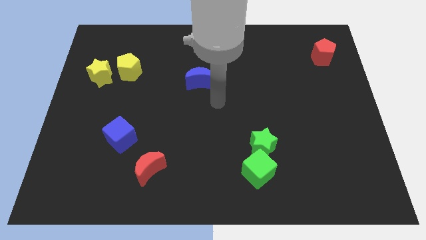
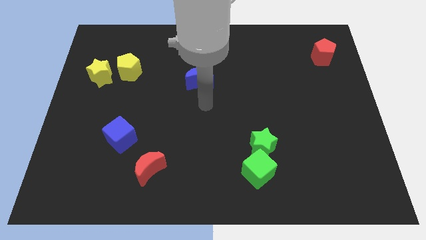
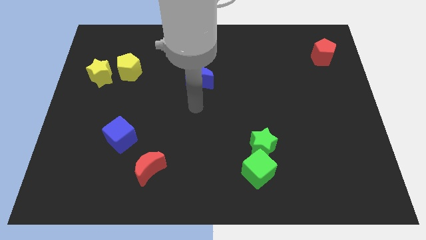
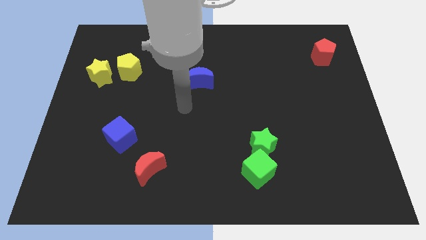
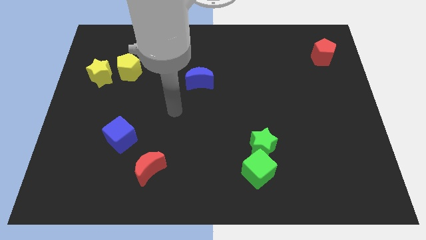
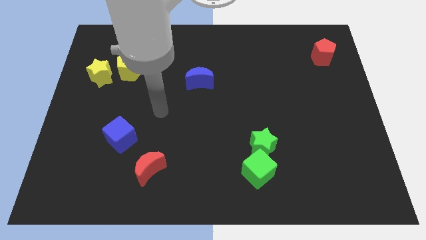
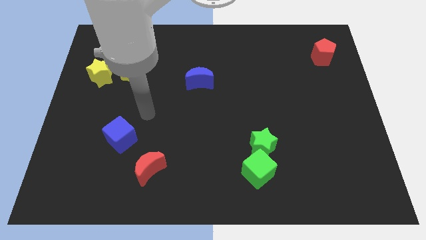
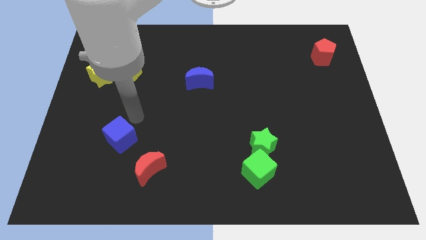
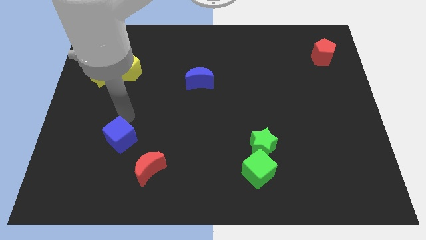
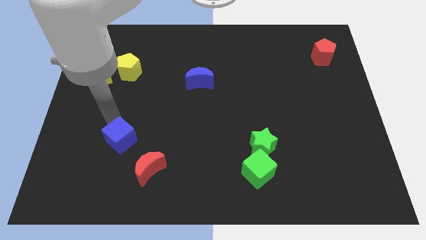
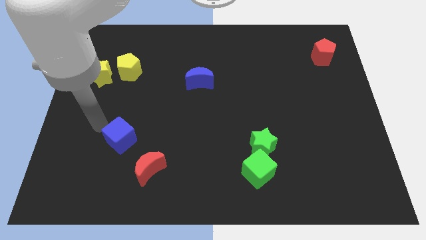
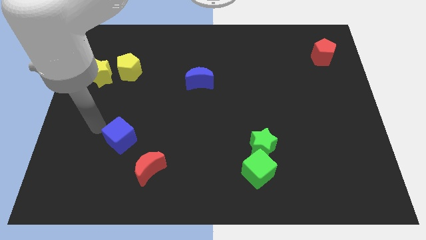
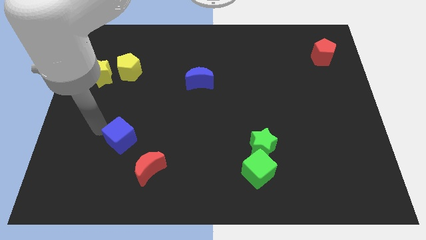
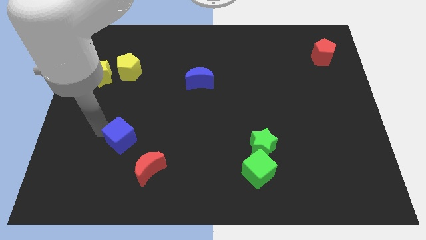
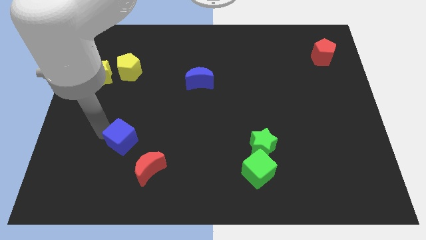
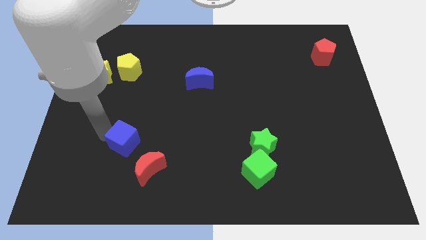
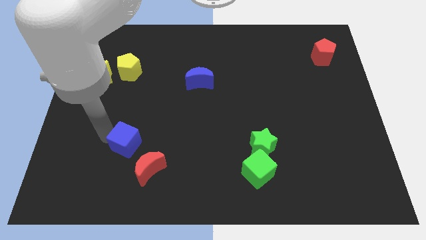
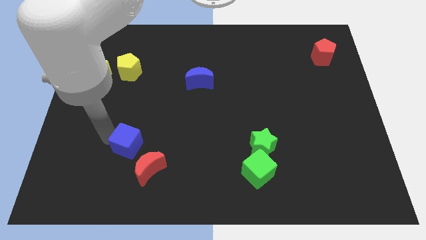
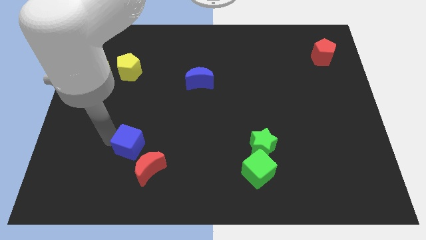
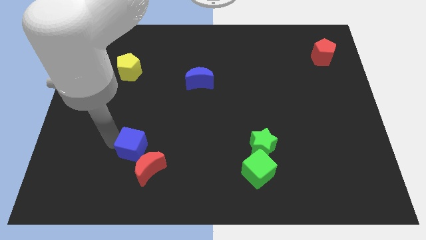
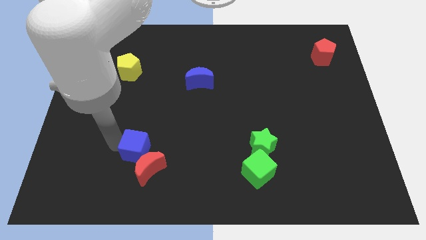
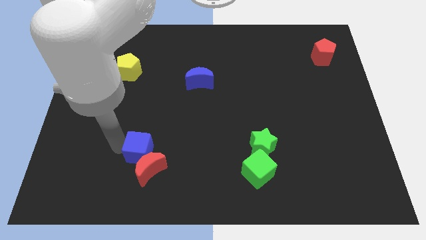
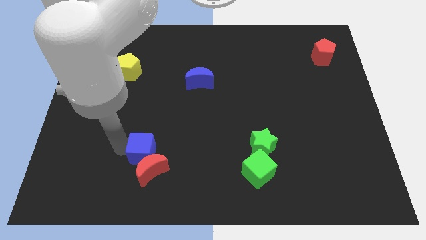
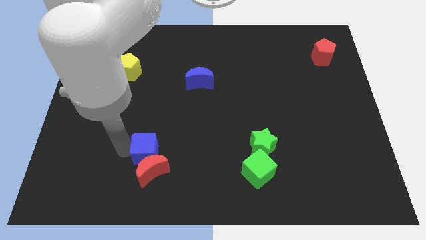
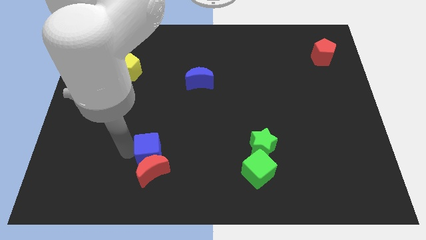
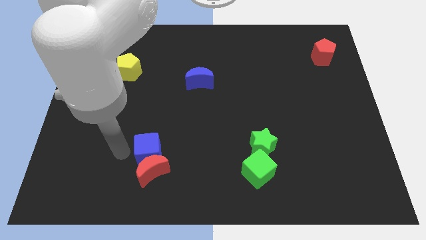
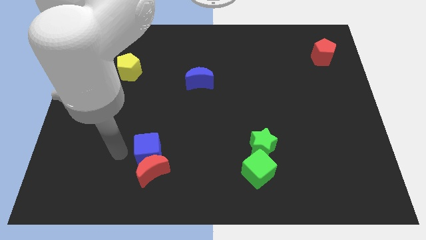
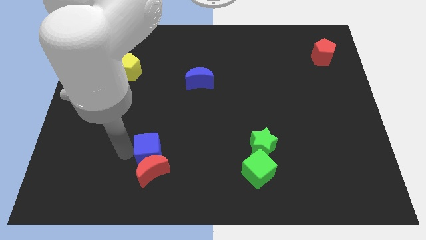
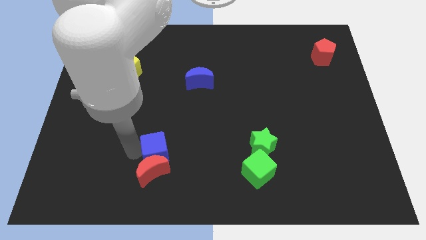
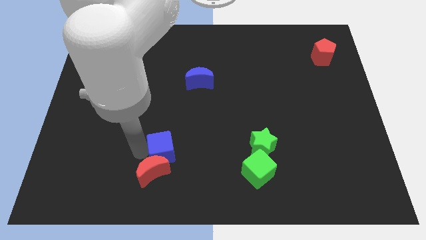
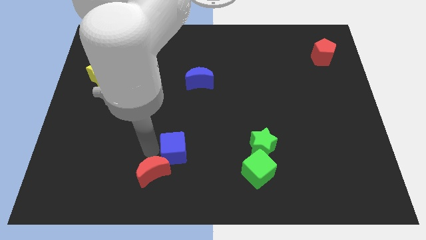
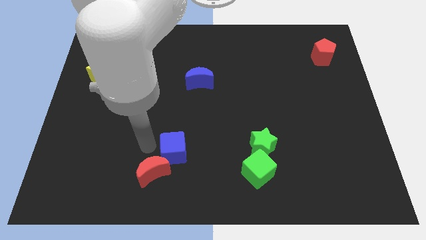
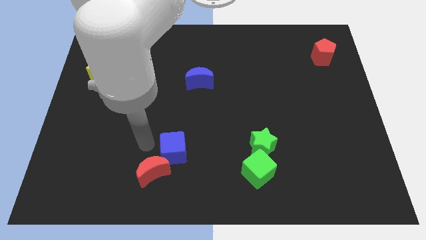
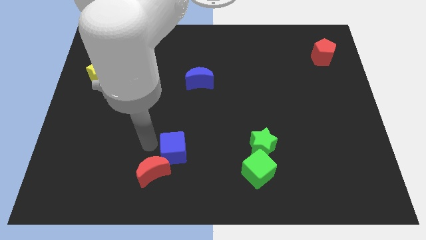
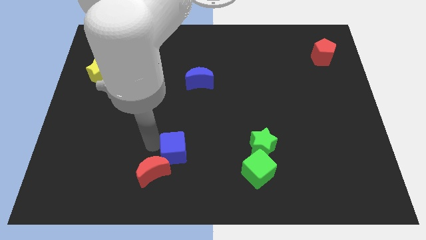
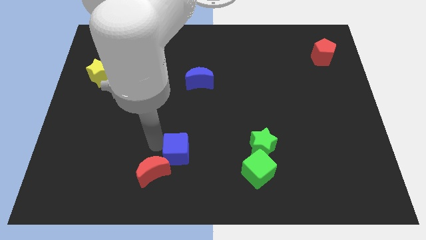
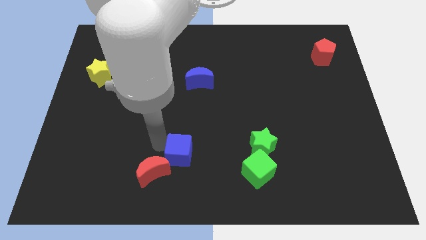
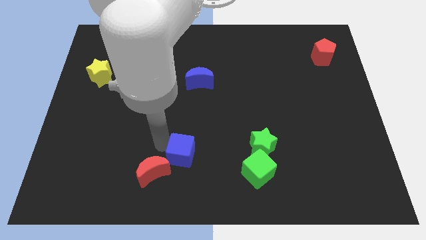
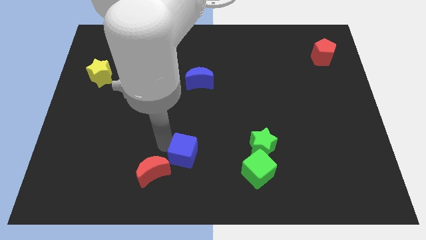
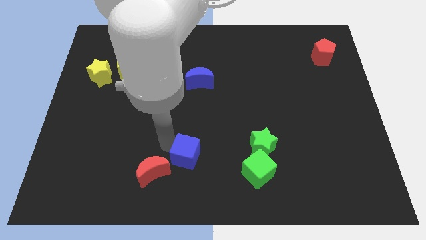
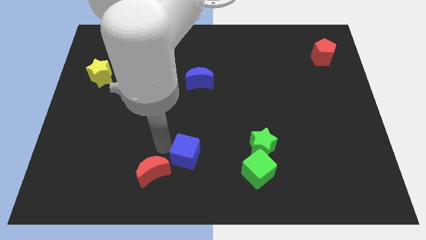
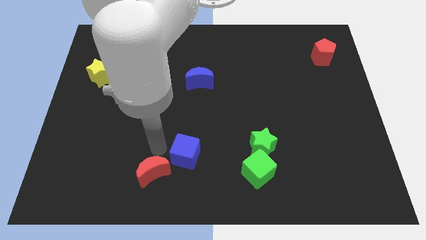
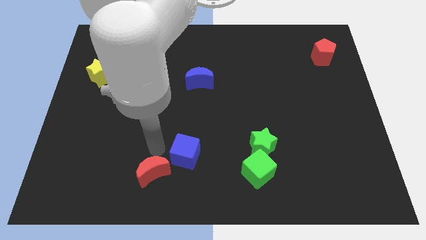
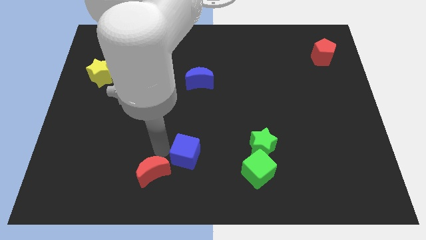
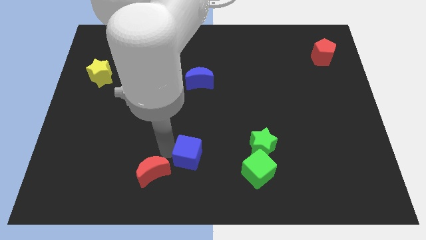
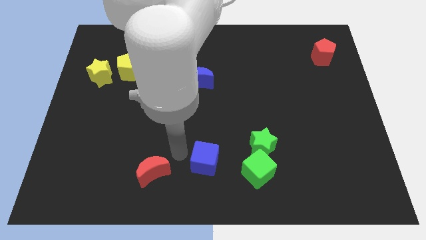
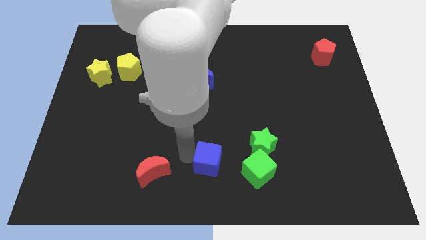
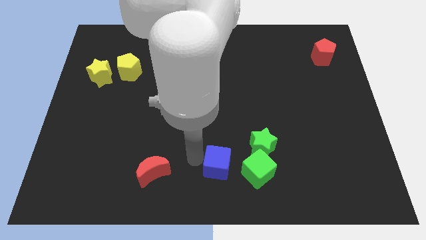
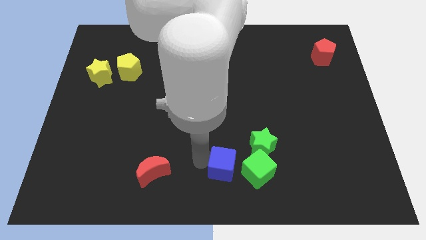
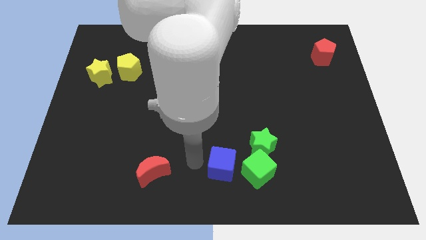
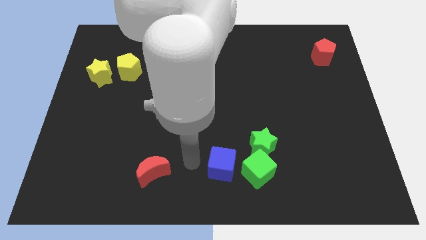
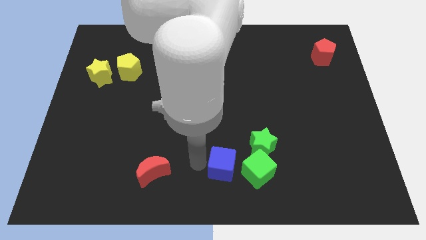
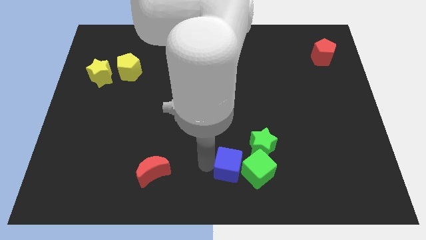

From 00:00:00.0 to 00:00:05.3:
put the blue cube close to the green cube

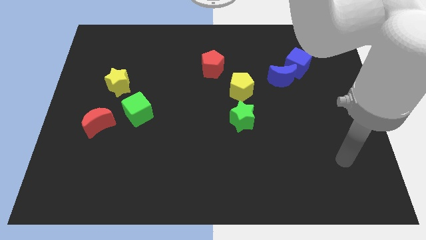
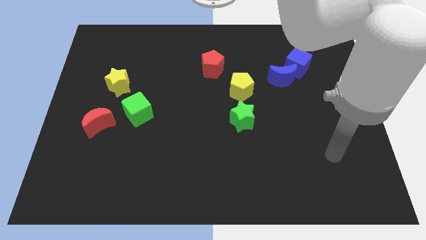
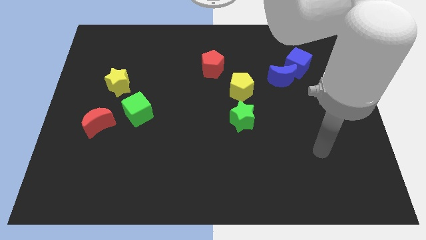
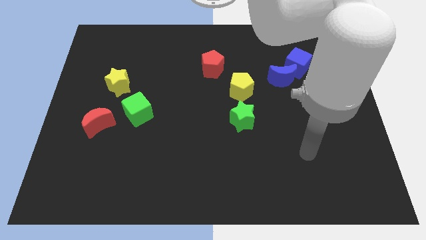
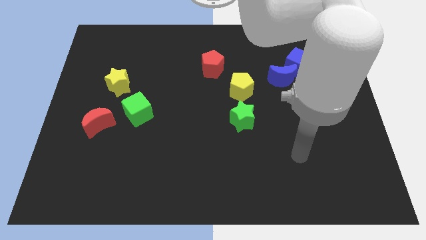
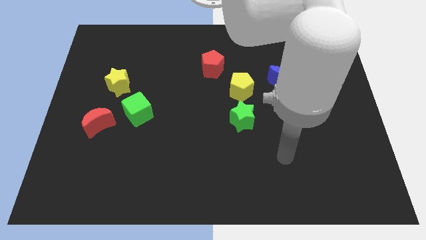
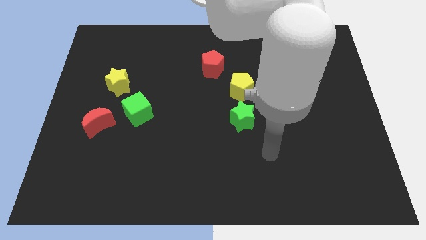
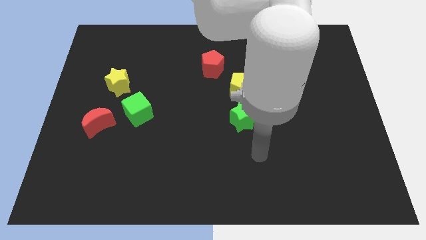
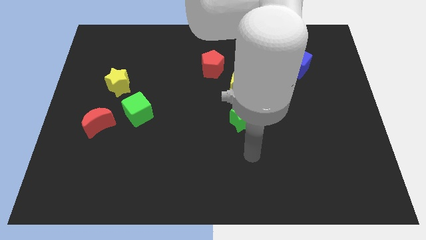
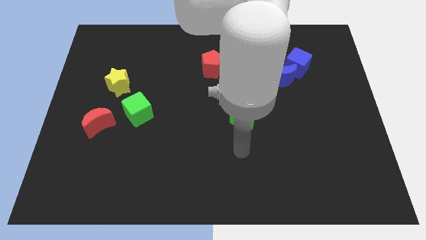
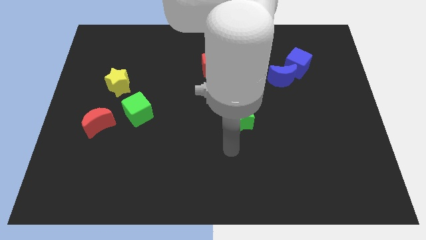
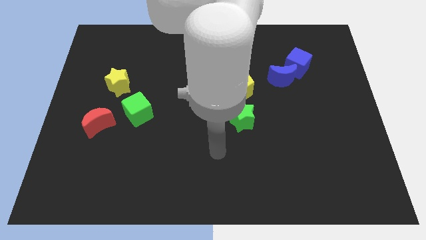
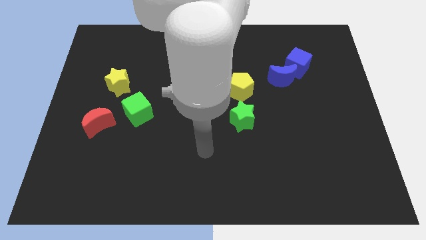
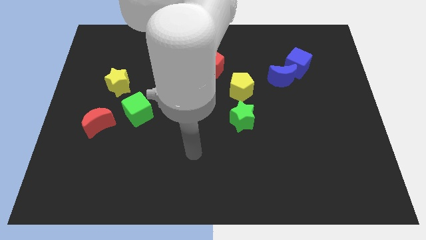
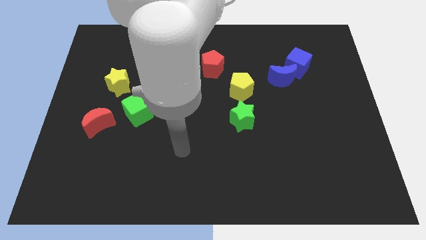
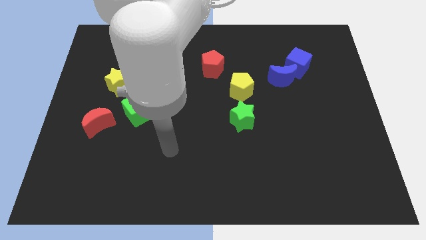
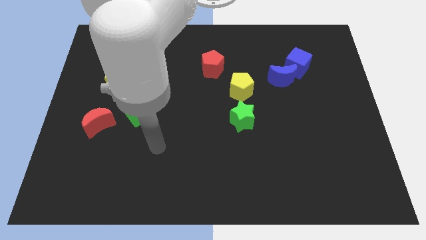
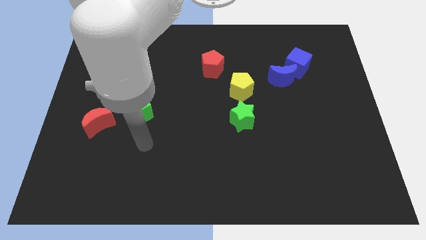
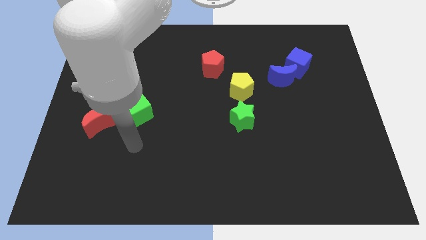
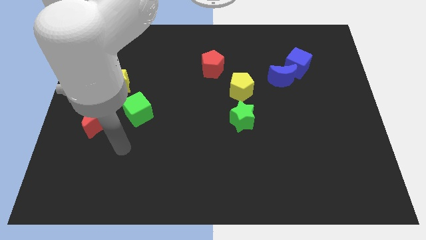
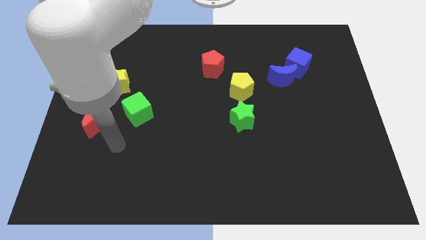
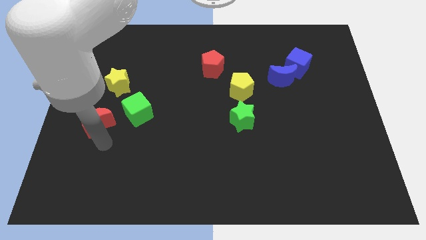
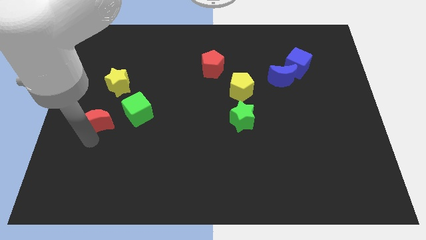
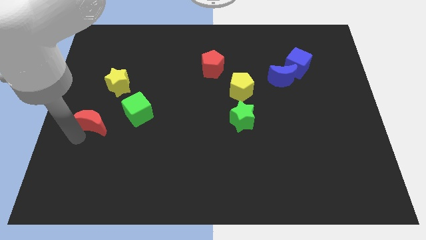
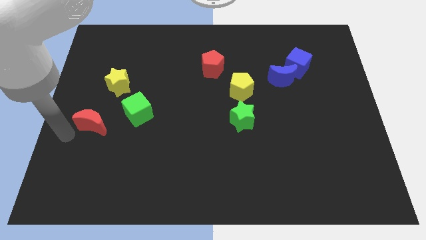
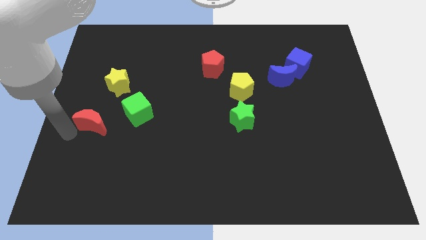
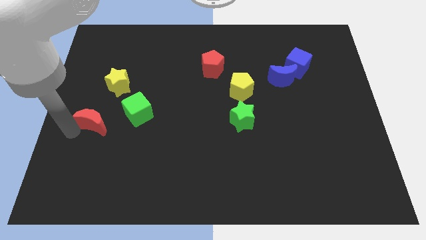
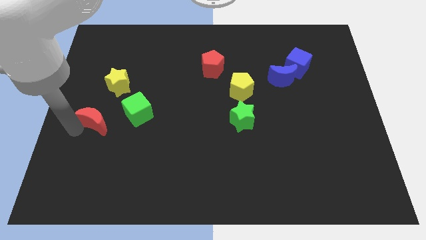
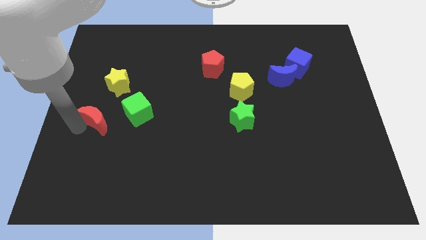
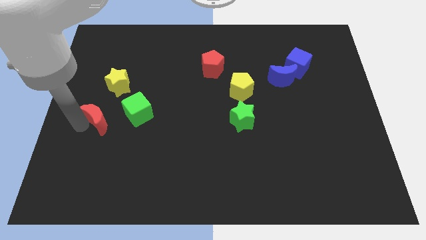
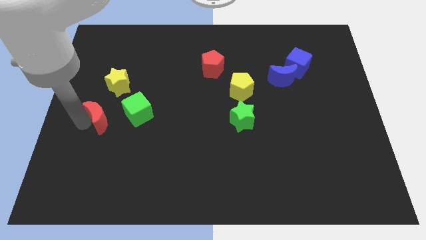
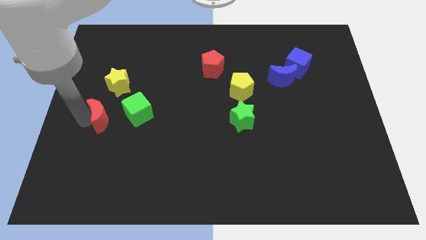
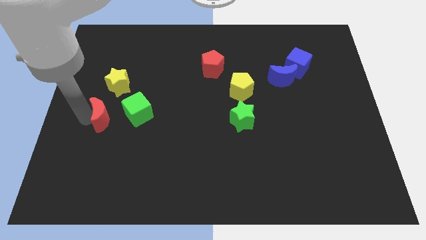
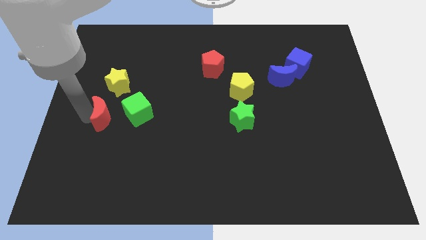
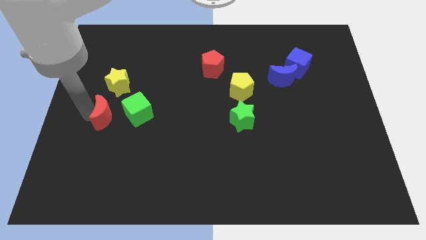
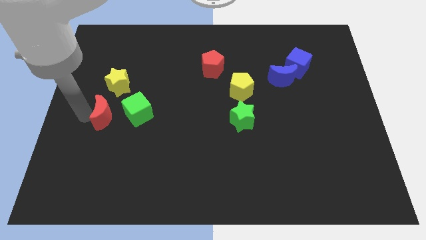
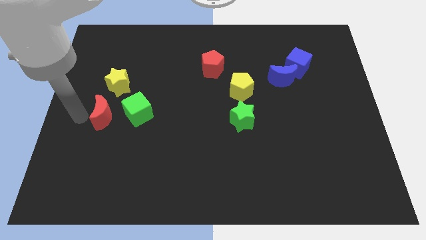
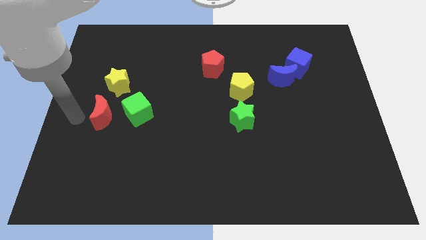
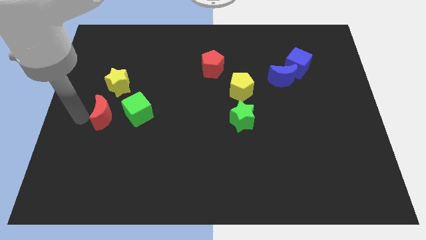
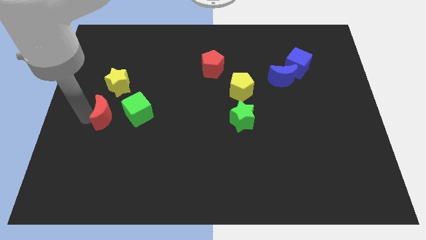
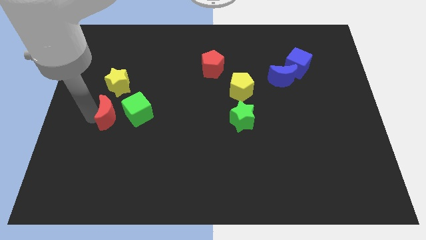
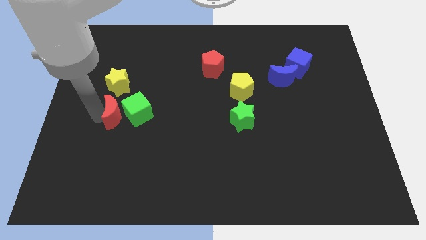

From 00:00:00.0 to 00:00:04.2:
put the red moon towards the green cube
